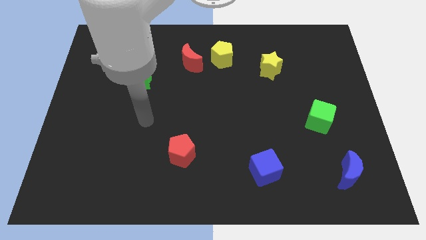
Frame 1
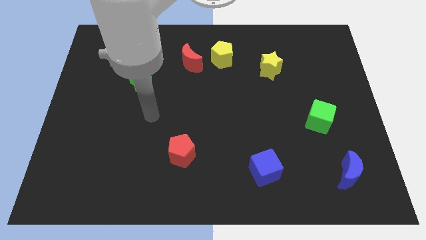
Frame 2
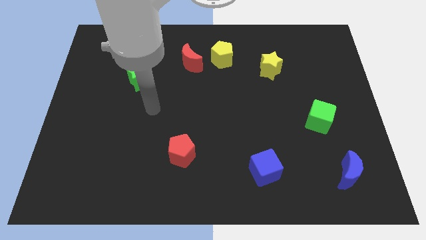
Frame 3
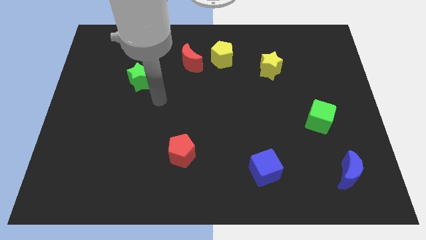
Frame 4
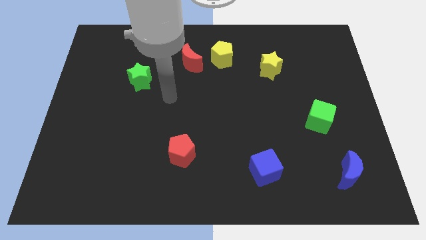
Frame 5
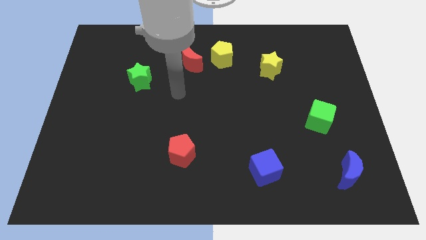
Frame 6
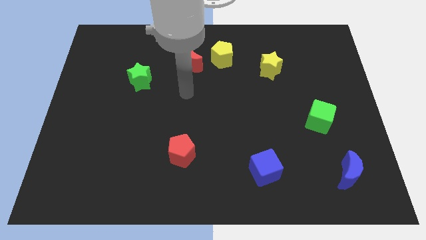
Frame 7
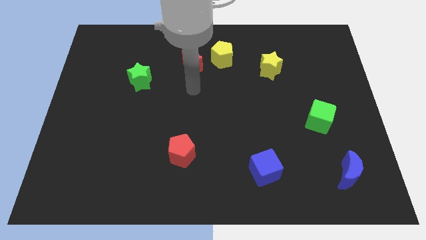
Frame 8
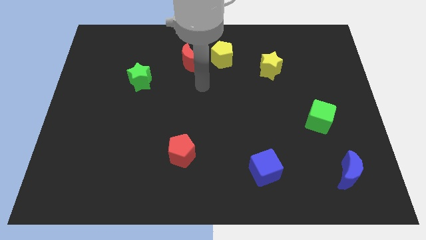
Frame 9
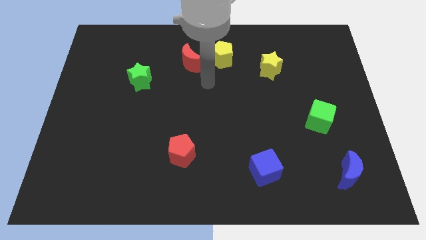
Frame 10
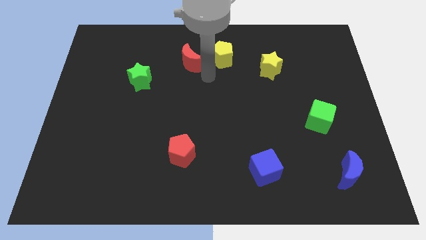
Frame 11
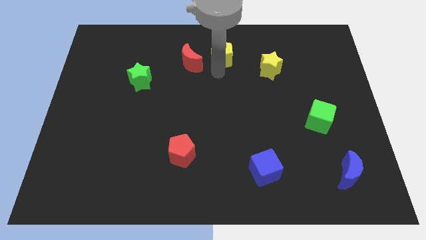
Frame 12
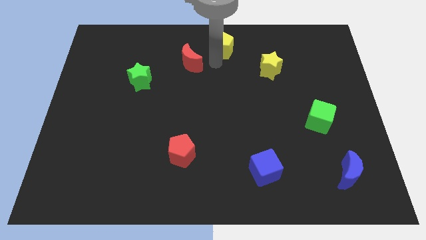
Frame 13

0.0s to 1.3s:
move the red moon away from the yellow pentagon

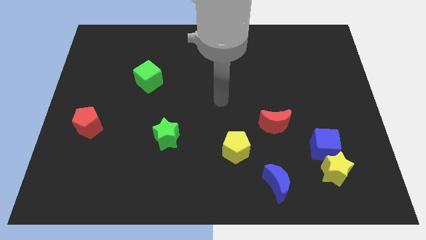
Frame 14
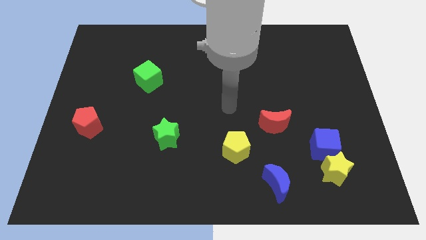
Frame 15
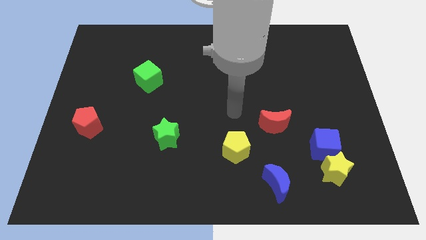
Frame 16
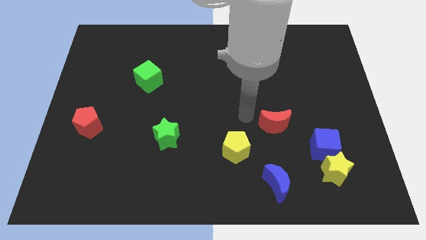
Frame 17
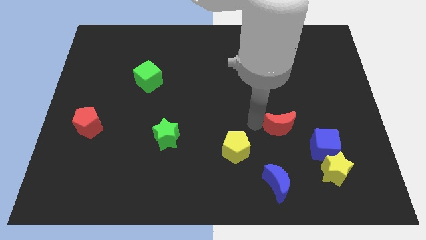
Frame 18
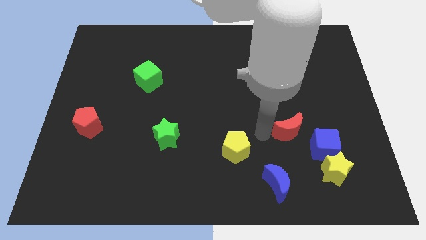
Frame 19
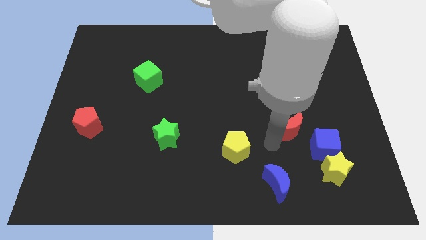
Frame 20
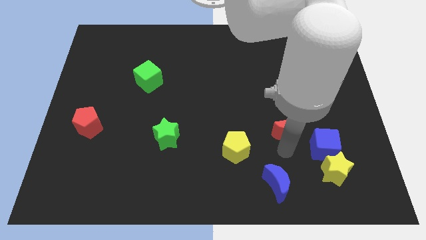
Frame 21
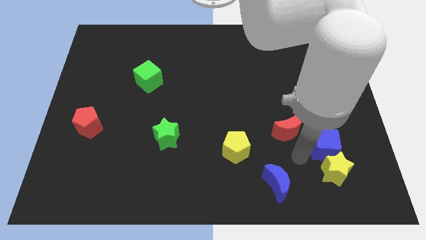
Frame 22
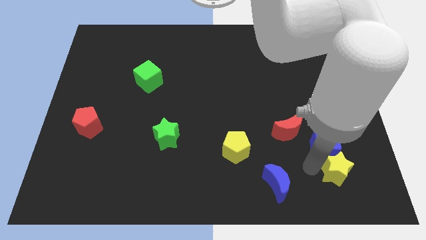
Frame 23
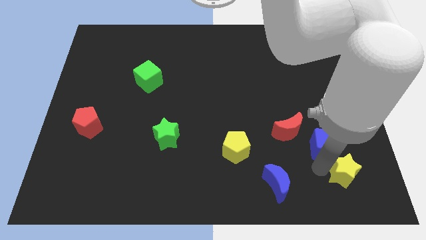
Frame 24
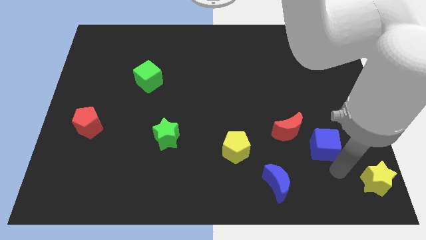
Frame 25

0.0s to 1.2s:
pull the blue cube apart from the yellow star

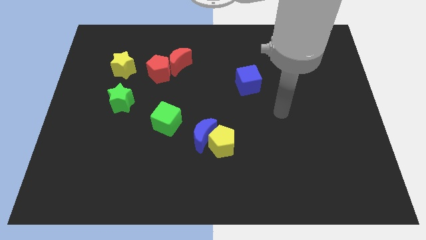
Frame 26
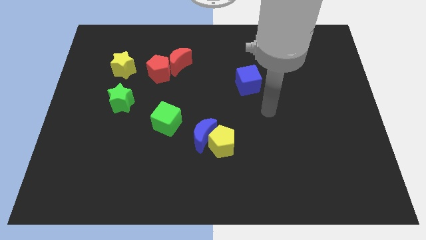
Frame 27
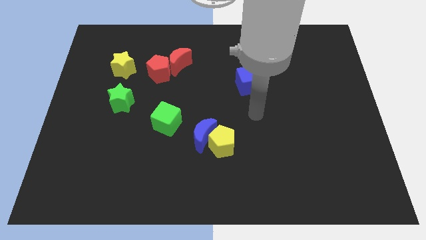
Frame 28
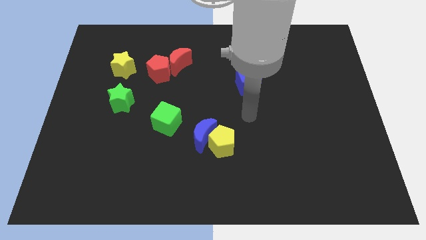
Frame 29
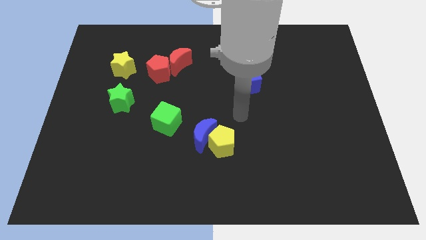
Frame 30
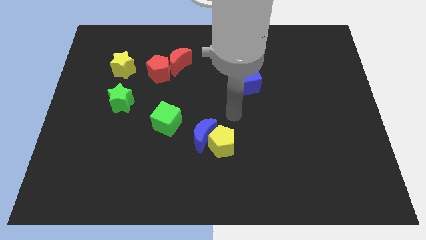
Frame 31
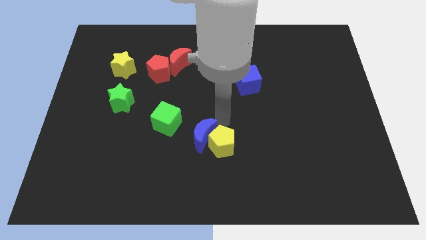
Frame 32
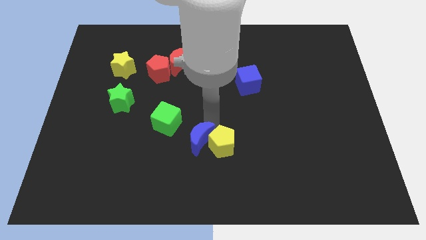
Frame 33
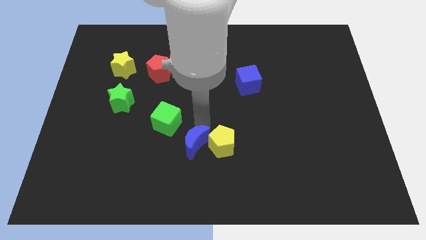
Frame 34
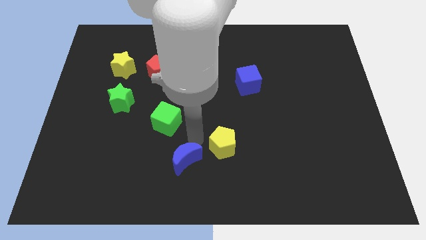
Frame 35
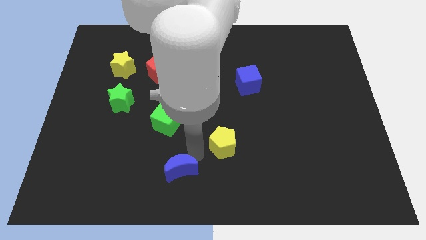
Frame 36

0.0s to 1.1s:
pull the yellow pentagon apart from the blue moon

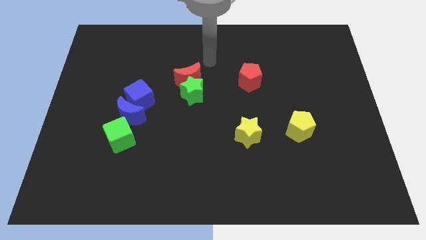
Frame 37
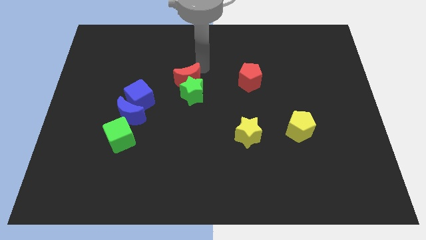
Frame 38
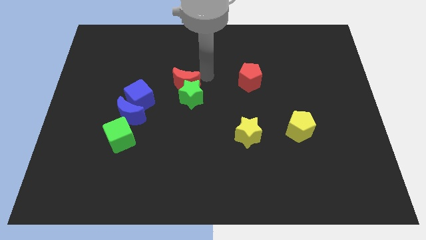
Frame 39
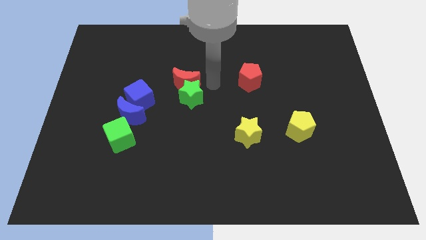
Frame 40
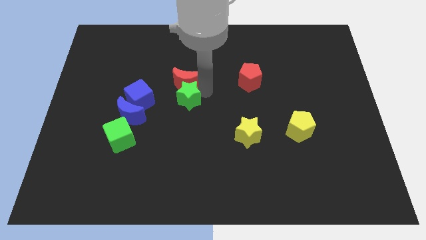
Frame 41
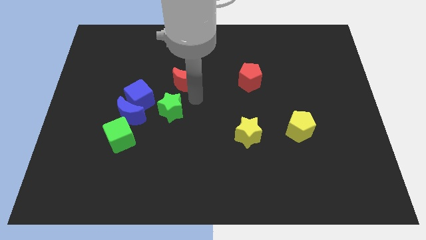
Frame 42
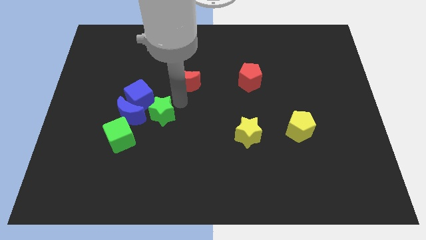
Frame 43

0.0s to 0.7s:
separate the red moon from the green star

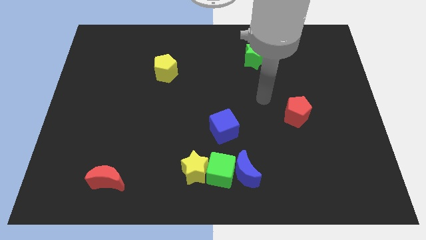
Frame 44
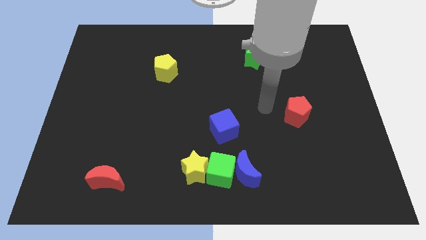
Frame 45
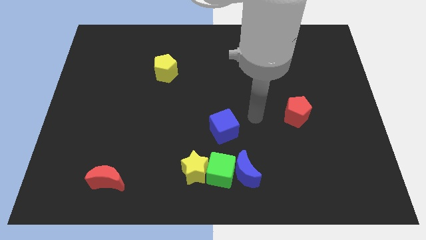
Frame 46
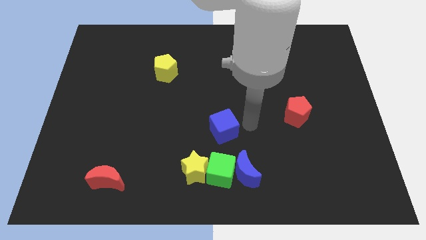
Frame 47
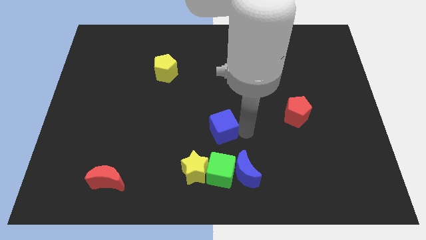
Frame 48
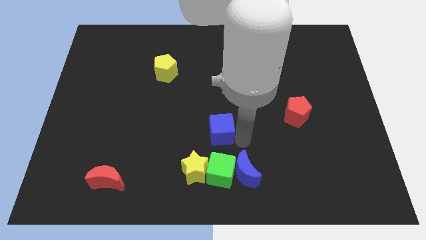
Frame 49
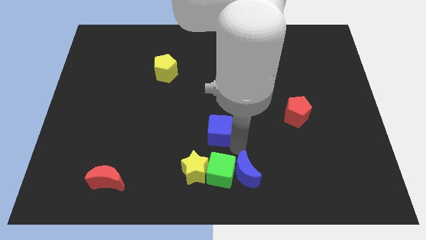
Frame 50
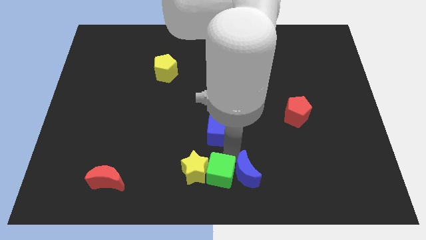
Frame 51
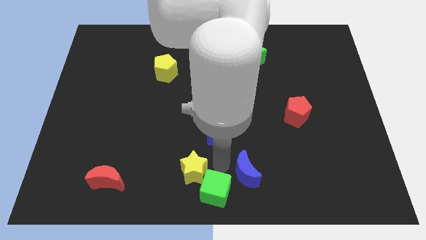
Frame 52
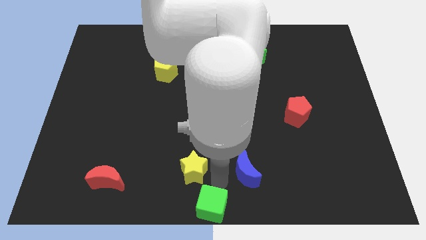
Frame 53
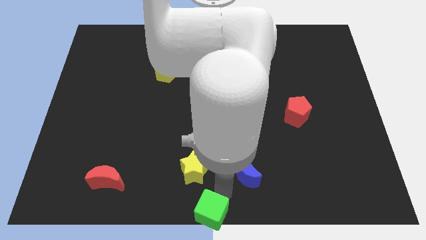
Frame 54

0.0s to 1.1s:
pull the blue moon apart from the green cube

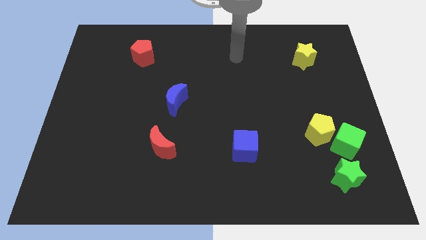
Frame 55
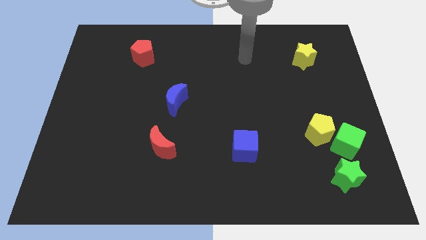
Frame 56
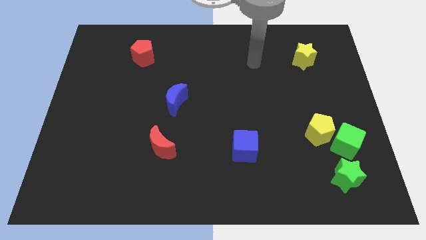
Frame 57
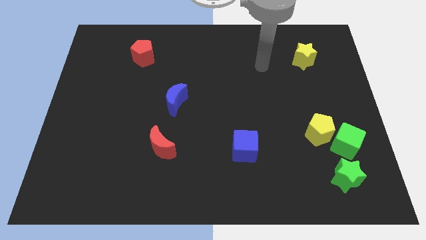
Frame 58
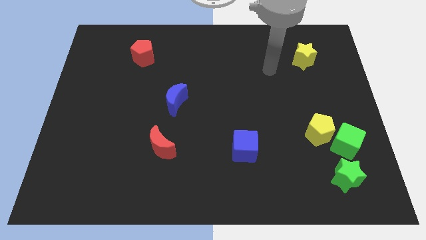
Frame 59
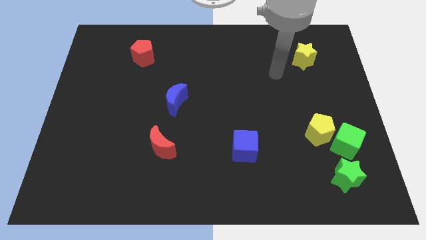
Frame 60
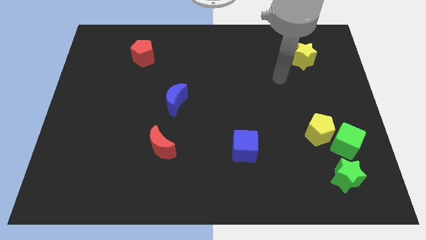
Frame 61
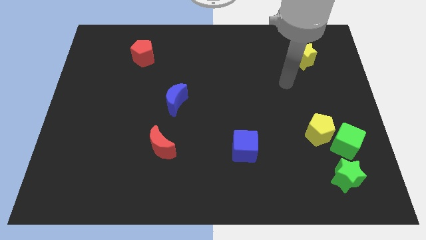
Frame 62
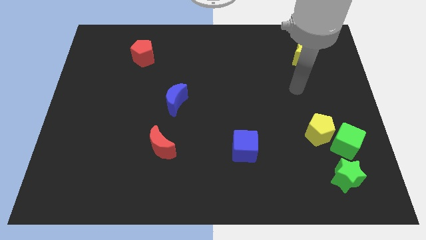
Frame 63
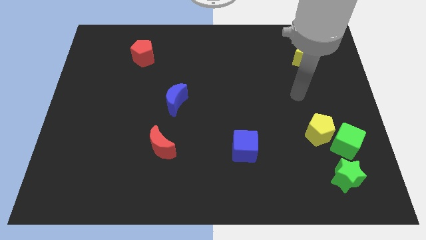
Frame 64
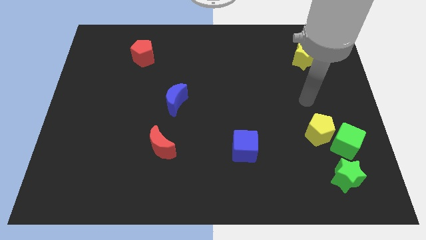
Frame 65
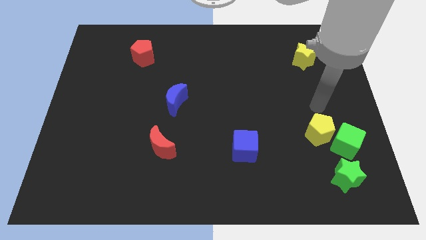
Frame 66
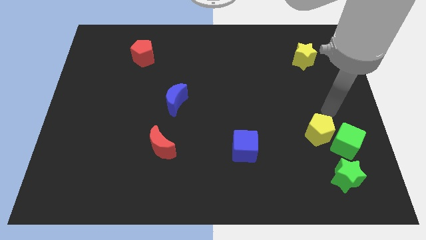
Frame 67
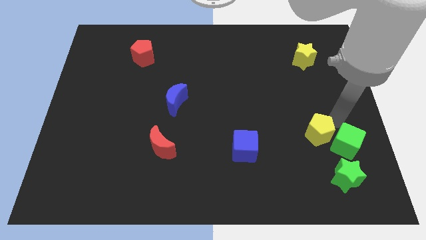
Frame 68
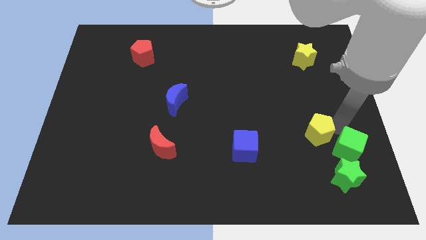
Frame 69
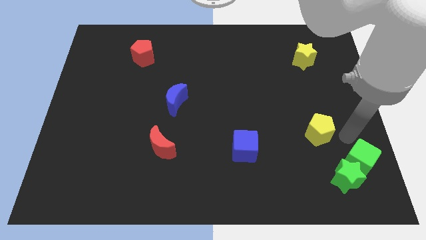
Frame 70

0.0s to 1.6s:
separate the yellow pentagon from the green cube

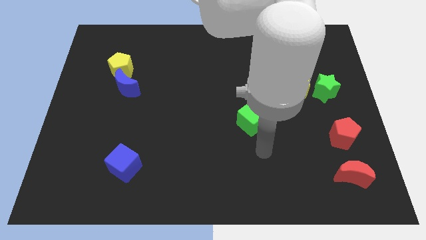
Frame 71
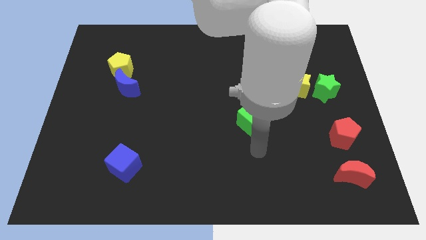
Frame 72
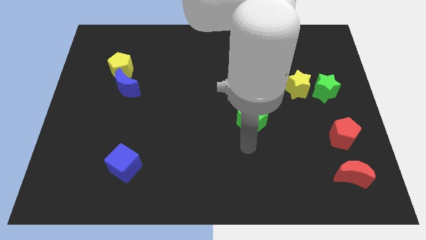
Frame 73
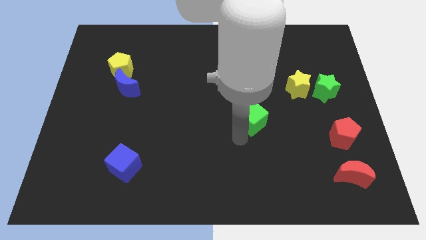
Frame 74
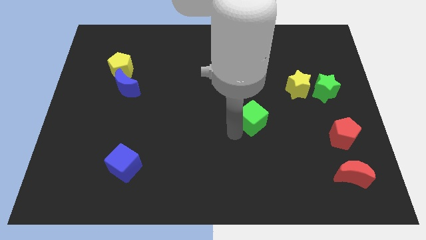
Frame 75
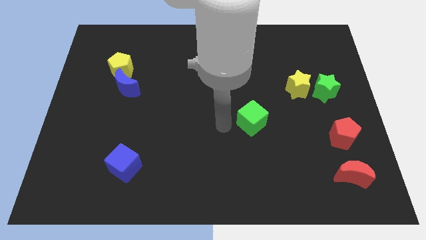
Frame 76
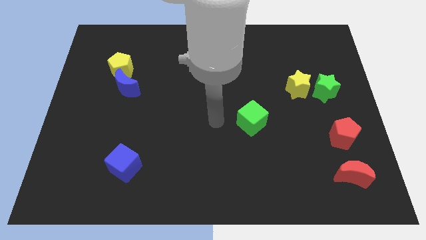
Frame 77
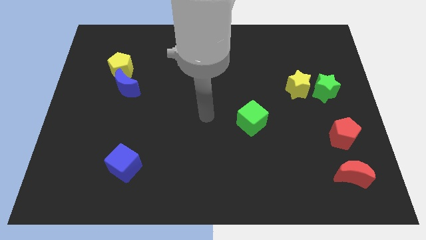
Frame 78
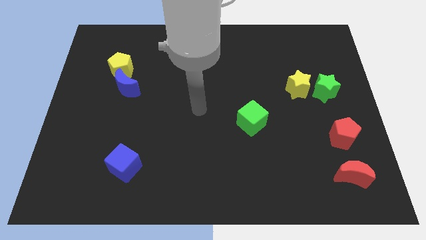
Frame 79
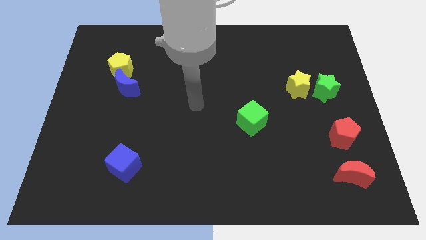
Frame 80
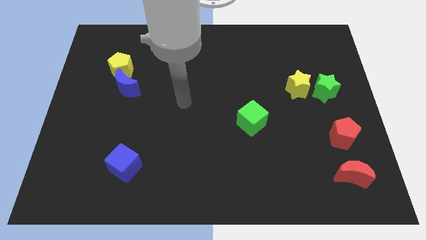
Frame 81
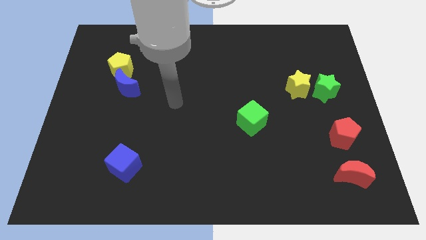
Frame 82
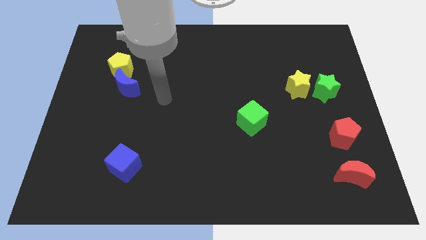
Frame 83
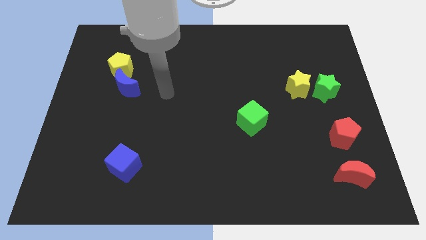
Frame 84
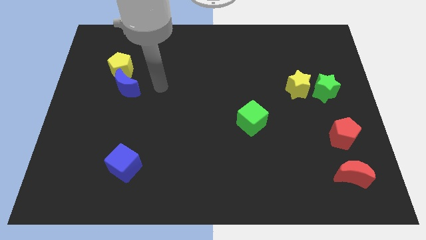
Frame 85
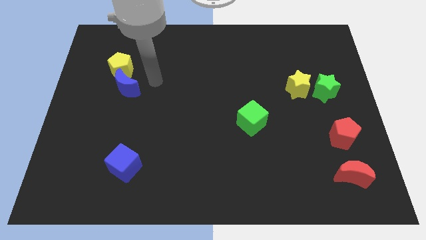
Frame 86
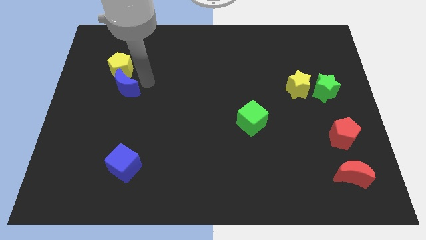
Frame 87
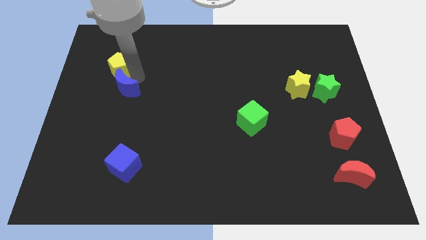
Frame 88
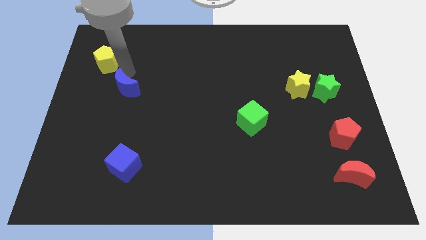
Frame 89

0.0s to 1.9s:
pull the blue moon apart from the yellow pentagon

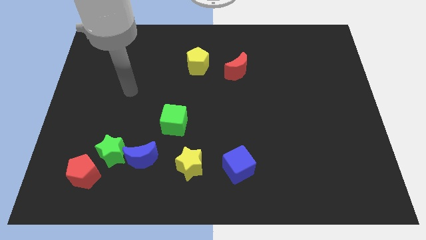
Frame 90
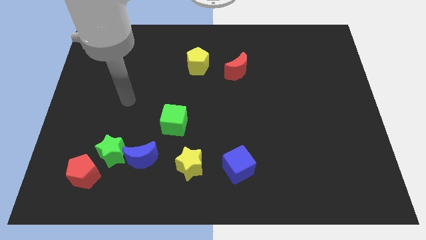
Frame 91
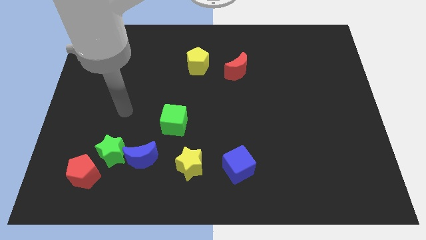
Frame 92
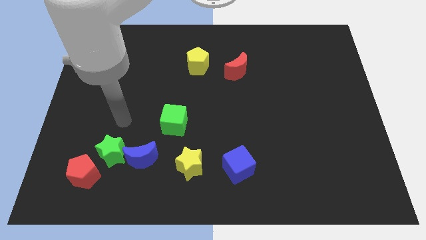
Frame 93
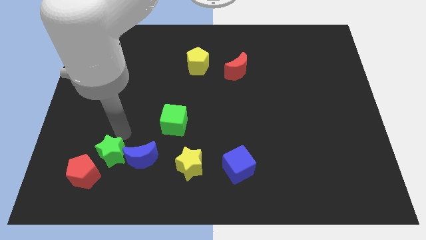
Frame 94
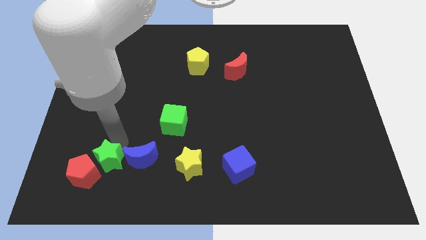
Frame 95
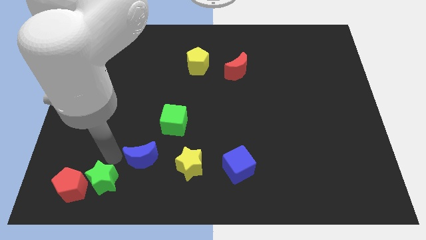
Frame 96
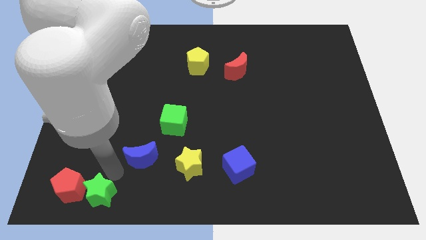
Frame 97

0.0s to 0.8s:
separate the blue moon from the green star
